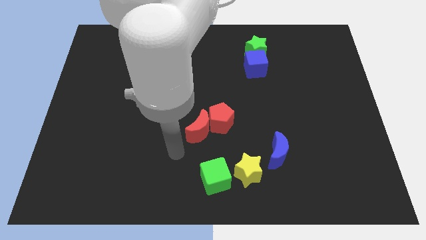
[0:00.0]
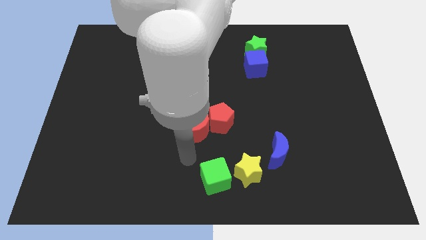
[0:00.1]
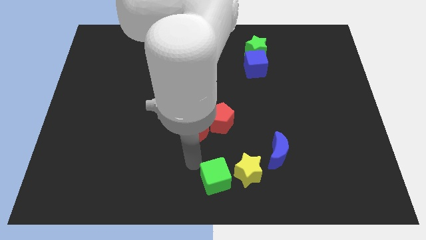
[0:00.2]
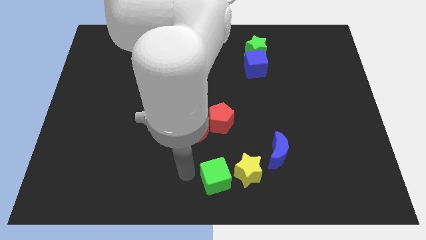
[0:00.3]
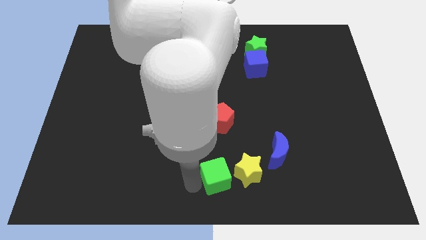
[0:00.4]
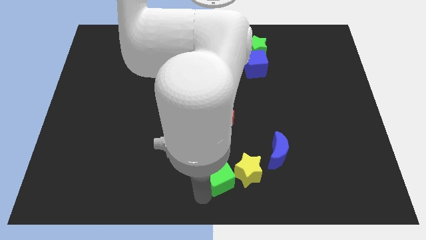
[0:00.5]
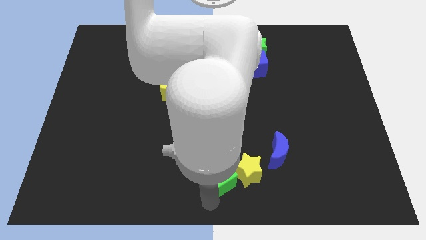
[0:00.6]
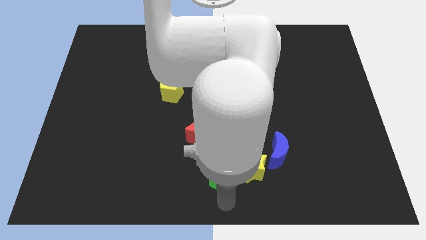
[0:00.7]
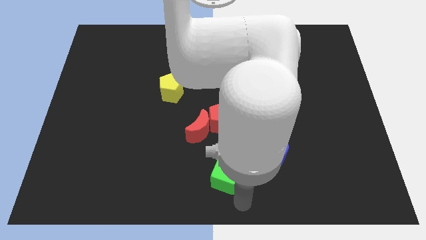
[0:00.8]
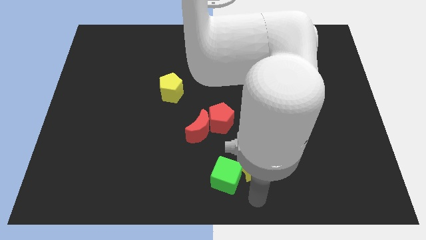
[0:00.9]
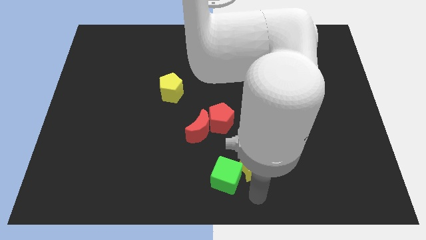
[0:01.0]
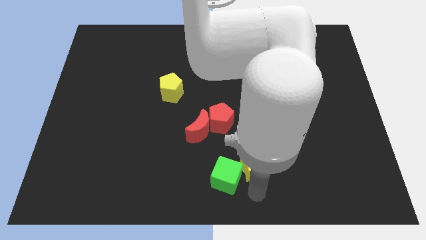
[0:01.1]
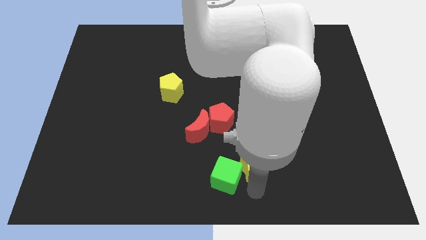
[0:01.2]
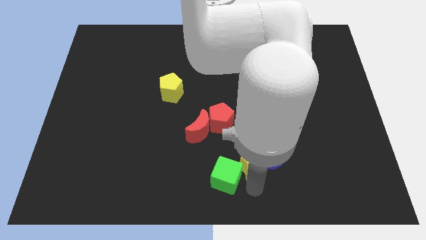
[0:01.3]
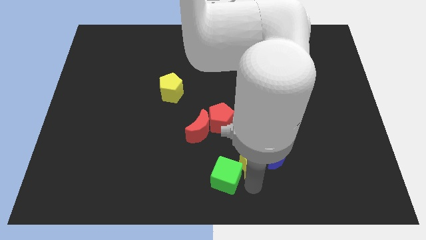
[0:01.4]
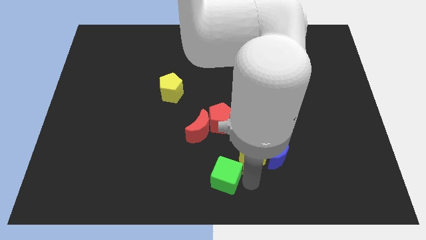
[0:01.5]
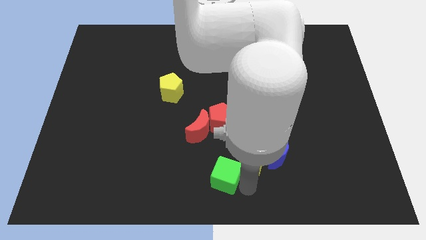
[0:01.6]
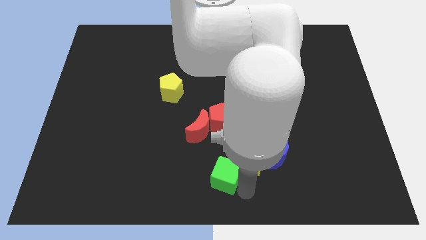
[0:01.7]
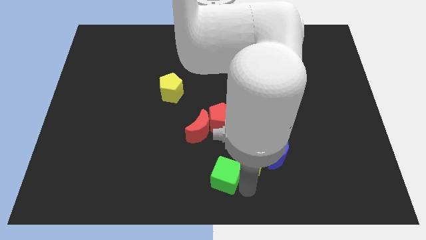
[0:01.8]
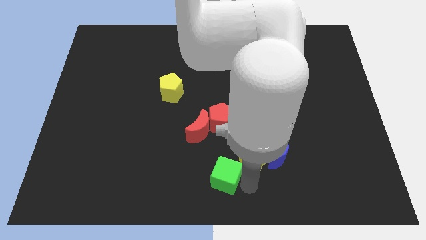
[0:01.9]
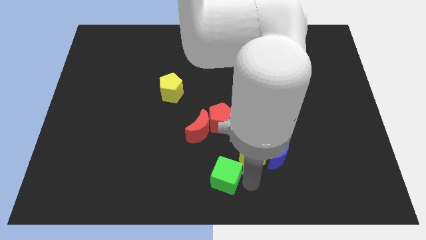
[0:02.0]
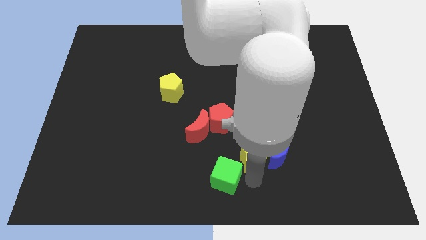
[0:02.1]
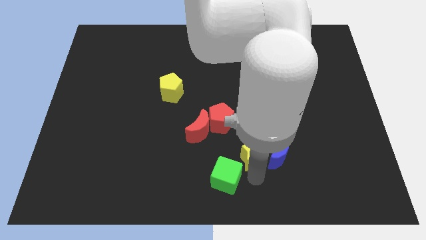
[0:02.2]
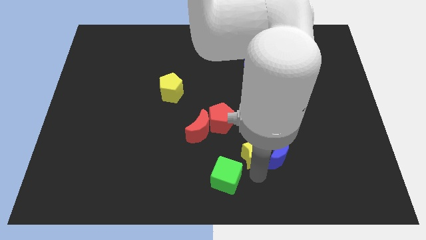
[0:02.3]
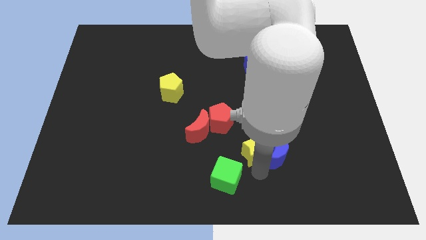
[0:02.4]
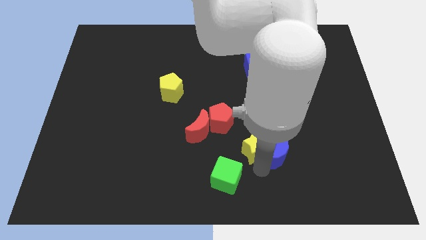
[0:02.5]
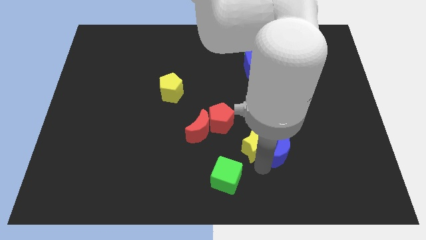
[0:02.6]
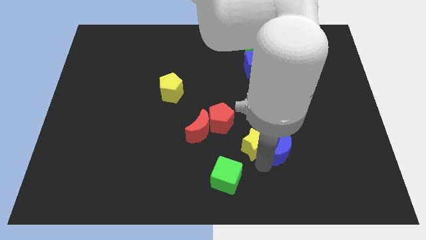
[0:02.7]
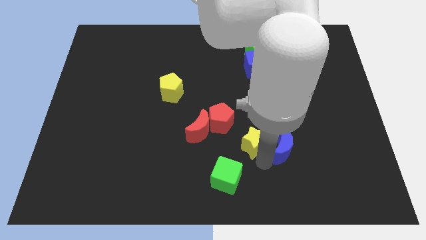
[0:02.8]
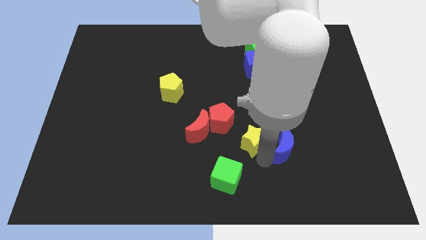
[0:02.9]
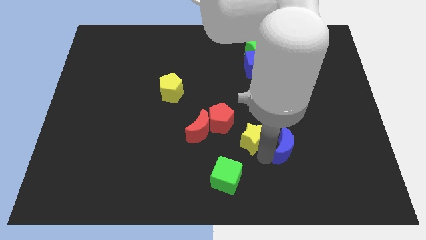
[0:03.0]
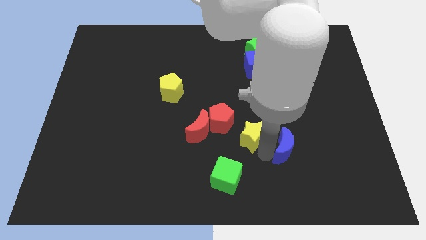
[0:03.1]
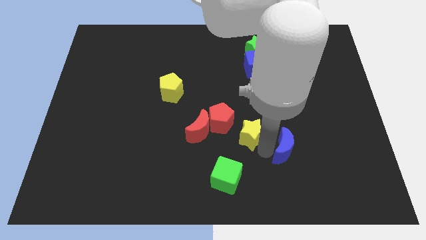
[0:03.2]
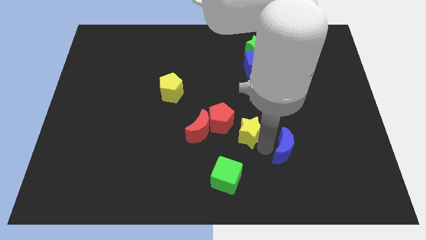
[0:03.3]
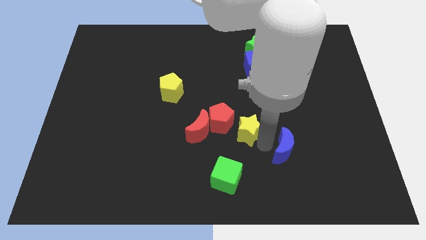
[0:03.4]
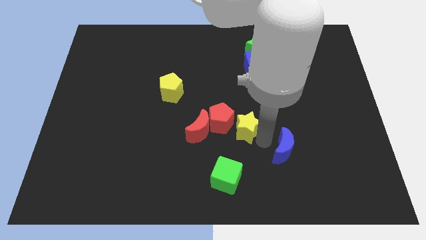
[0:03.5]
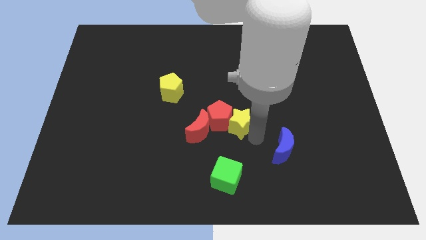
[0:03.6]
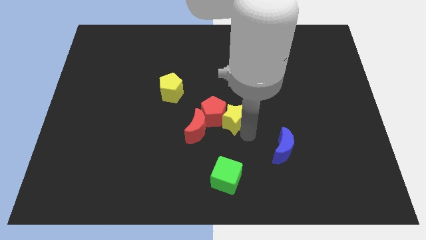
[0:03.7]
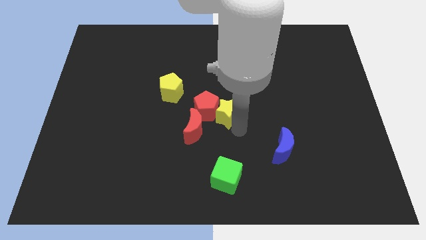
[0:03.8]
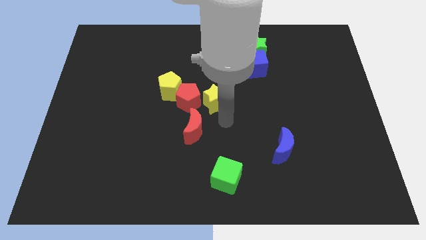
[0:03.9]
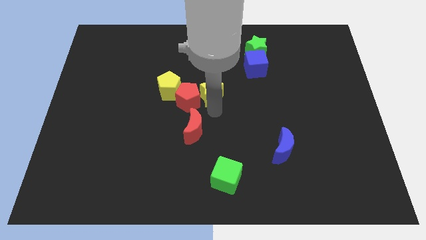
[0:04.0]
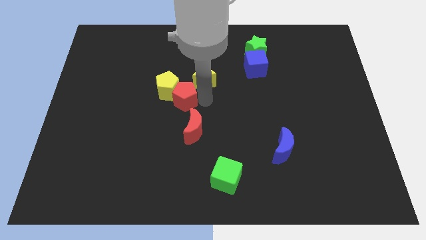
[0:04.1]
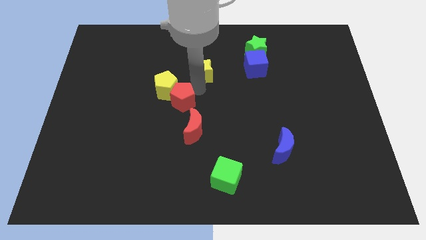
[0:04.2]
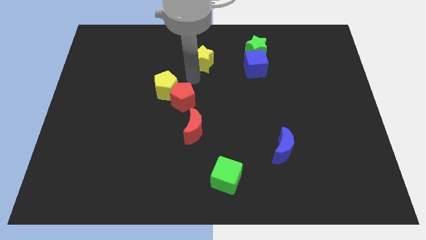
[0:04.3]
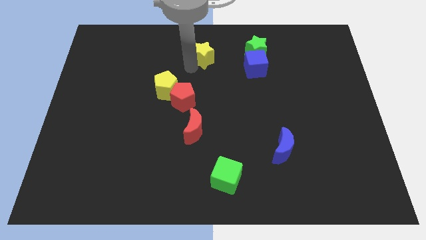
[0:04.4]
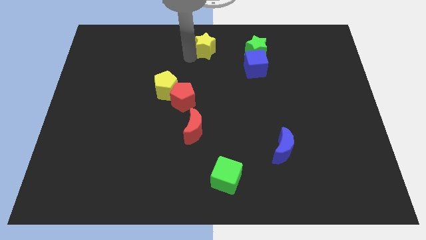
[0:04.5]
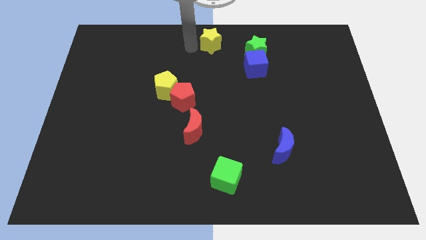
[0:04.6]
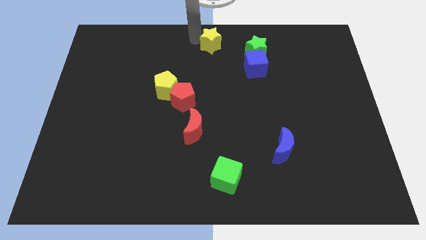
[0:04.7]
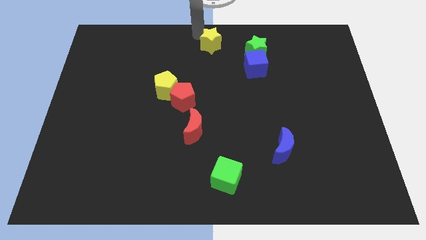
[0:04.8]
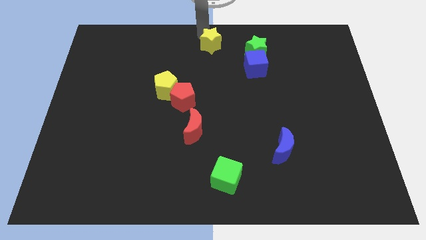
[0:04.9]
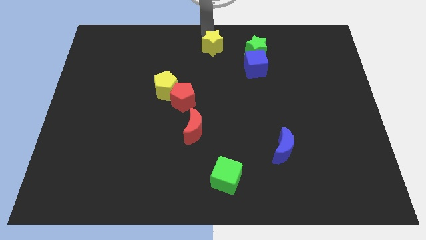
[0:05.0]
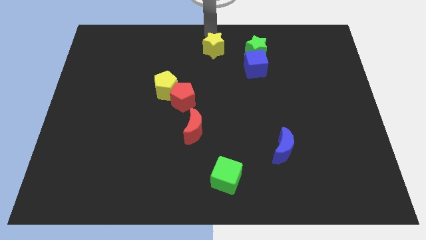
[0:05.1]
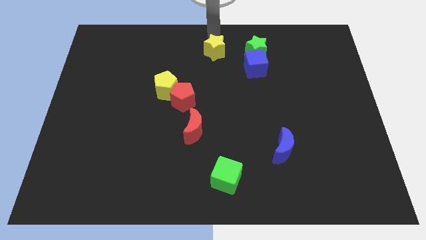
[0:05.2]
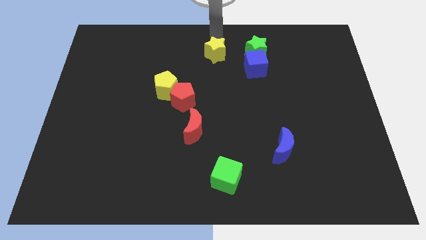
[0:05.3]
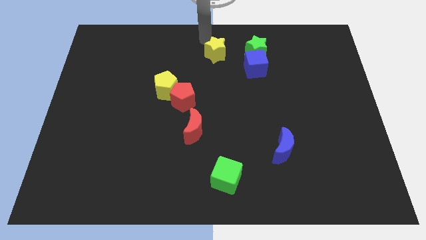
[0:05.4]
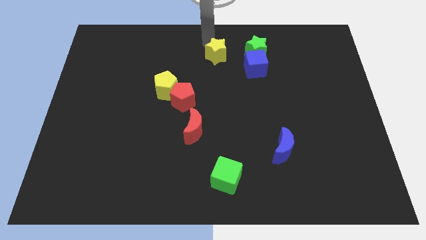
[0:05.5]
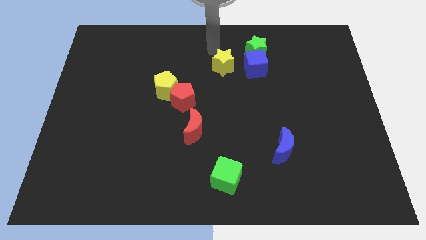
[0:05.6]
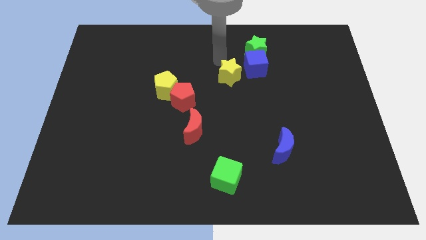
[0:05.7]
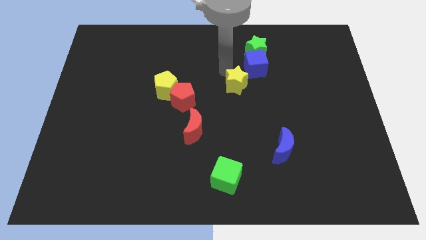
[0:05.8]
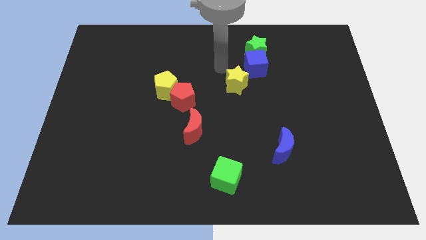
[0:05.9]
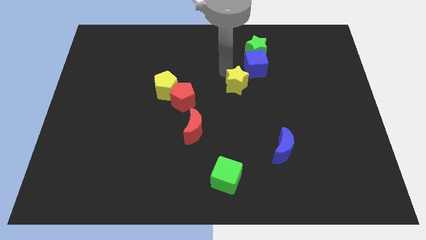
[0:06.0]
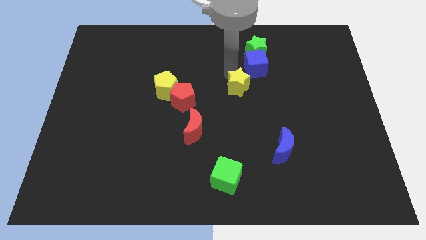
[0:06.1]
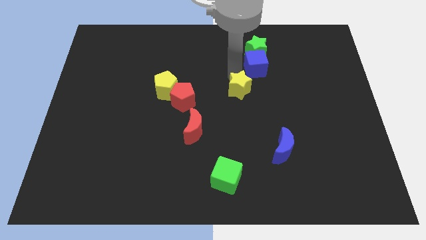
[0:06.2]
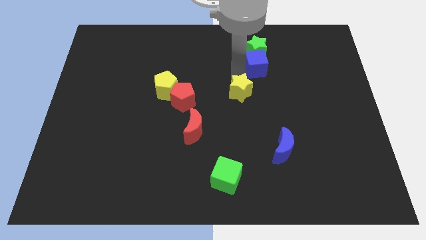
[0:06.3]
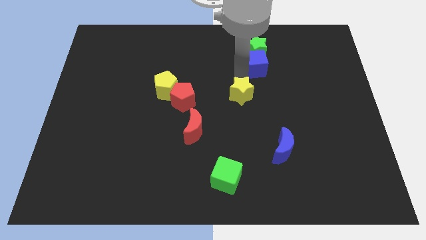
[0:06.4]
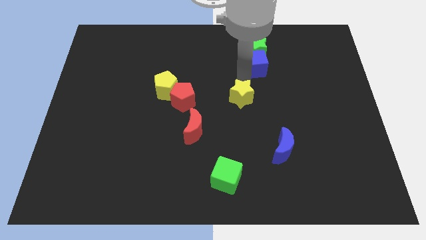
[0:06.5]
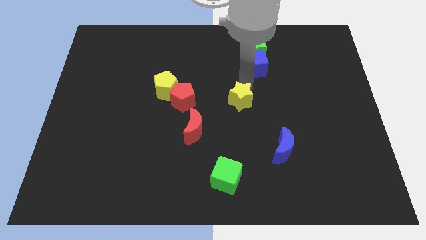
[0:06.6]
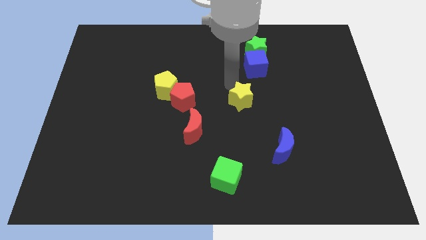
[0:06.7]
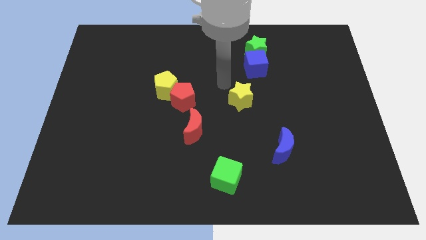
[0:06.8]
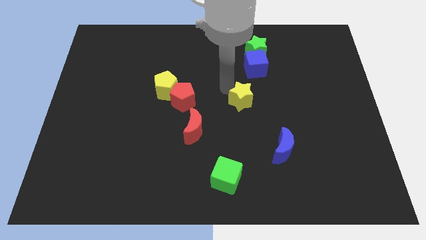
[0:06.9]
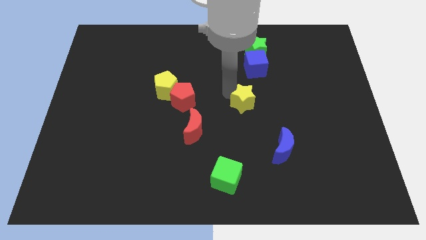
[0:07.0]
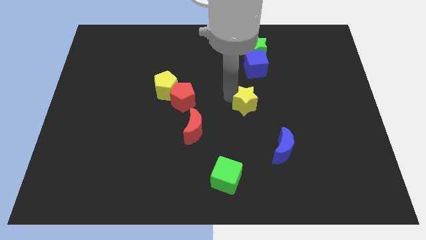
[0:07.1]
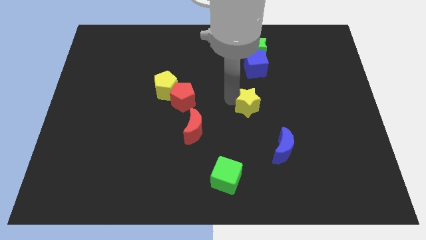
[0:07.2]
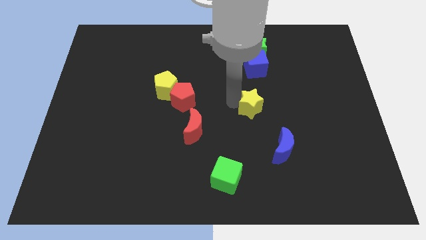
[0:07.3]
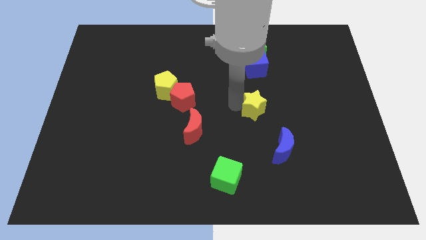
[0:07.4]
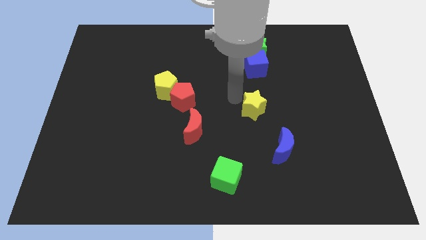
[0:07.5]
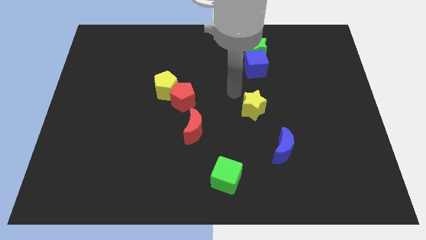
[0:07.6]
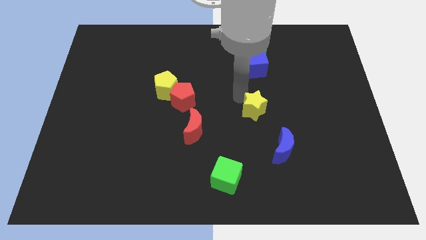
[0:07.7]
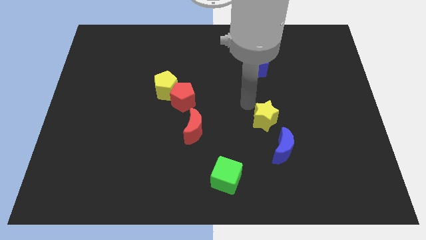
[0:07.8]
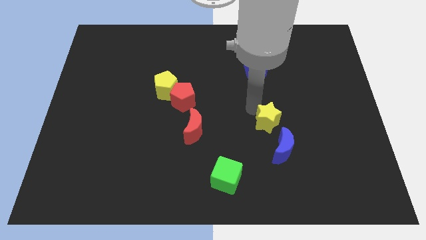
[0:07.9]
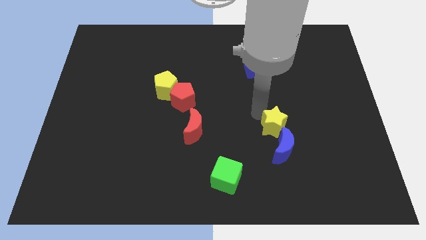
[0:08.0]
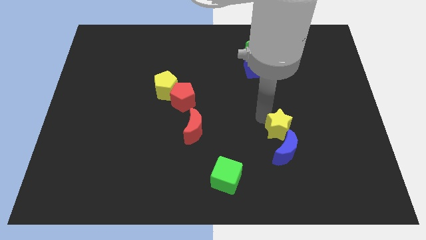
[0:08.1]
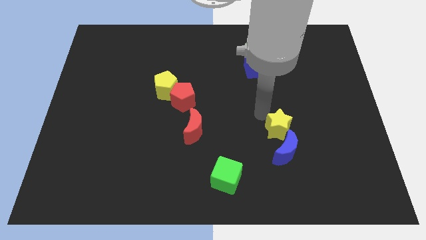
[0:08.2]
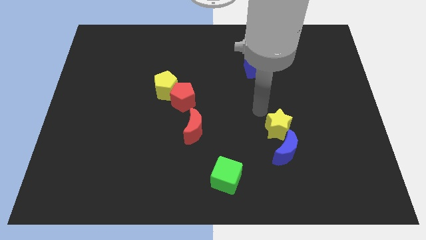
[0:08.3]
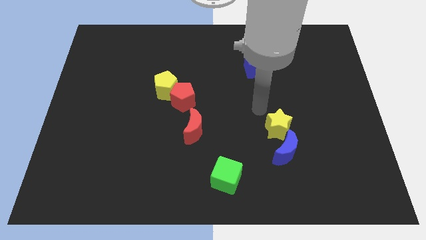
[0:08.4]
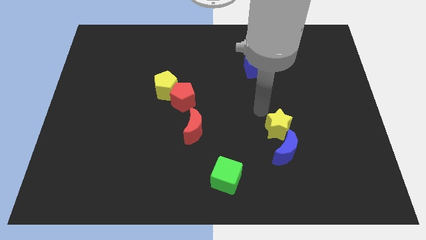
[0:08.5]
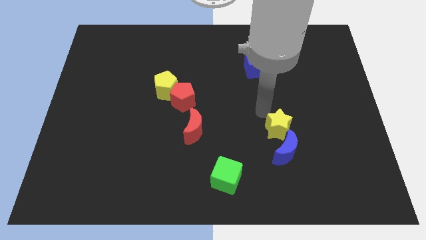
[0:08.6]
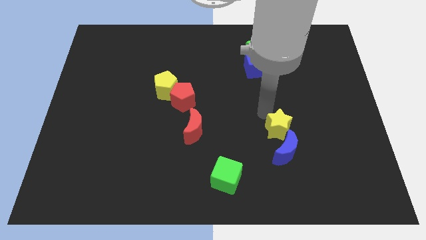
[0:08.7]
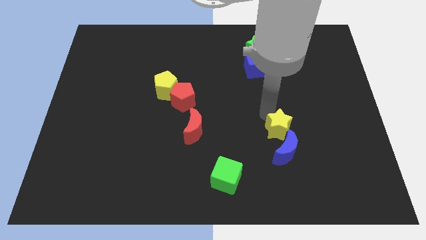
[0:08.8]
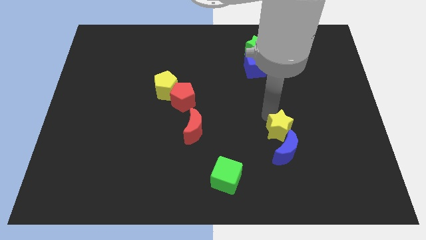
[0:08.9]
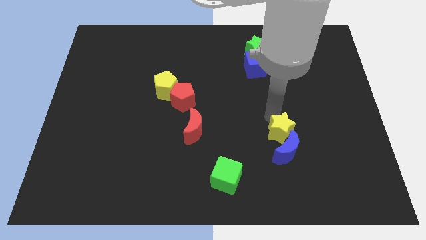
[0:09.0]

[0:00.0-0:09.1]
slide the yellow star to the top right side of the blue moon
